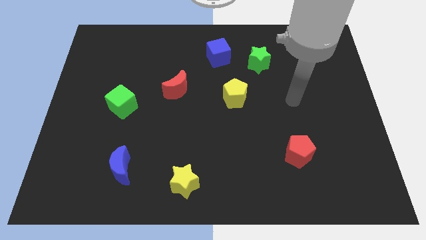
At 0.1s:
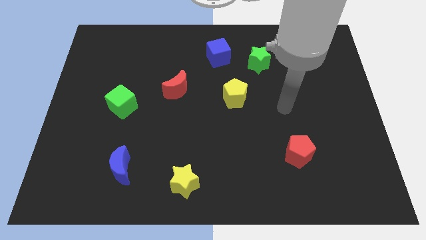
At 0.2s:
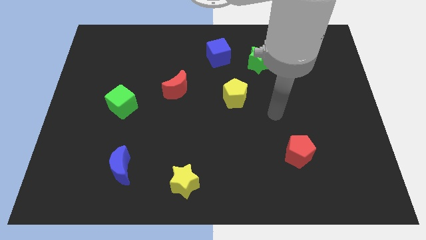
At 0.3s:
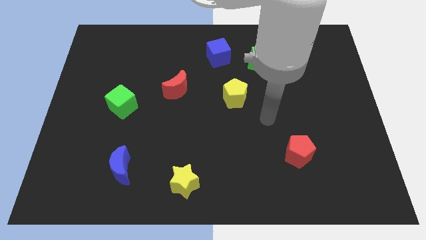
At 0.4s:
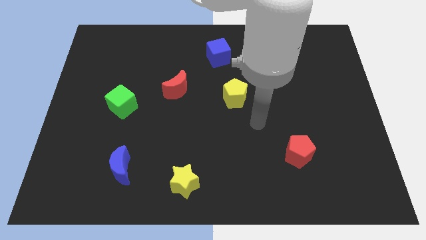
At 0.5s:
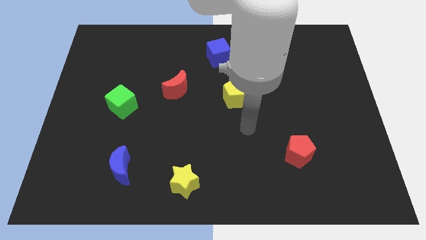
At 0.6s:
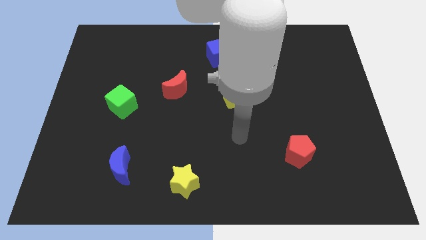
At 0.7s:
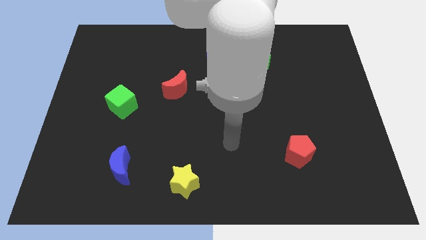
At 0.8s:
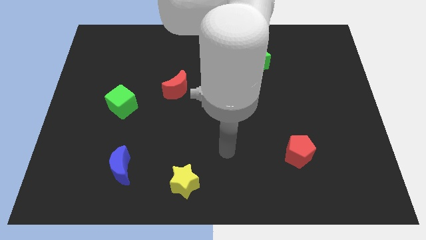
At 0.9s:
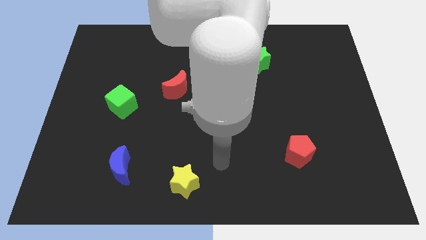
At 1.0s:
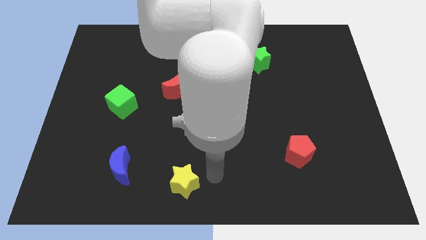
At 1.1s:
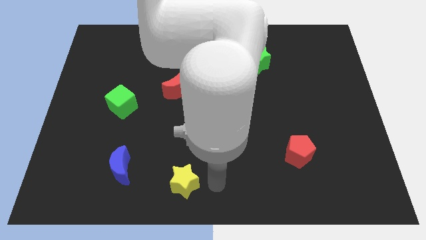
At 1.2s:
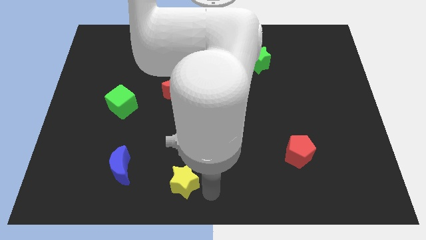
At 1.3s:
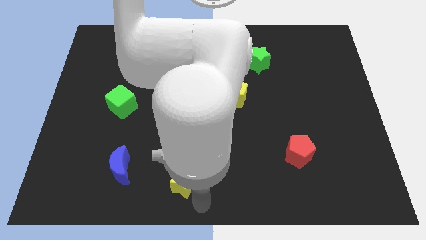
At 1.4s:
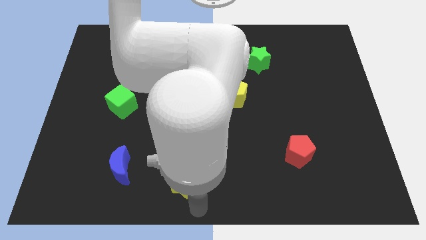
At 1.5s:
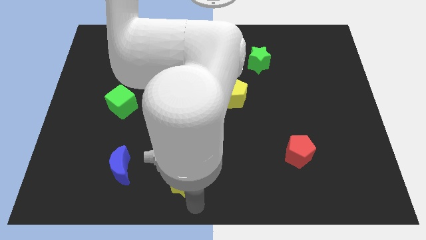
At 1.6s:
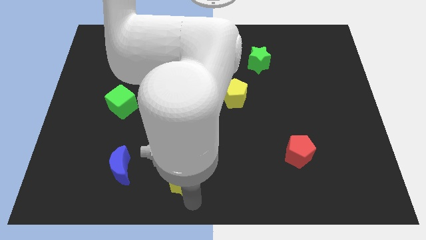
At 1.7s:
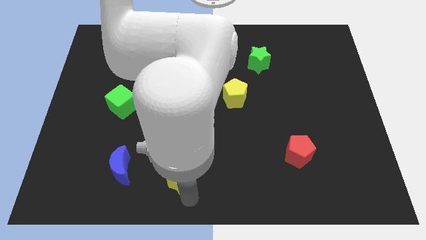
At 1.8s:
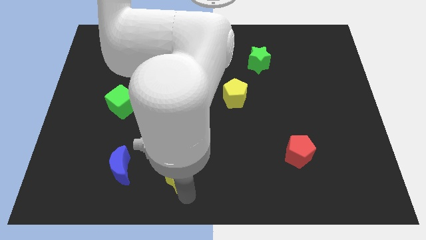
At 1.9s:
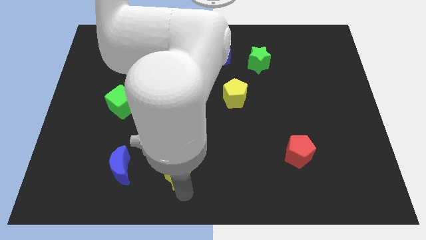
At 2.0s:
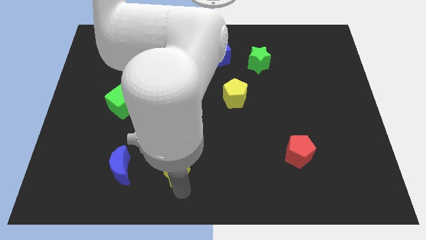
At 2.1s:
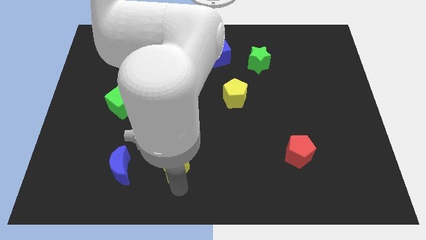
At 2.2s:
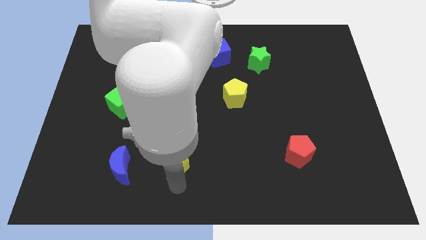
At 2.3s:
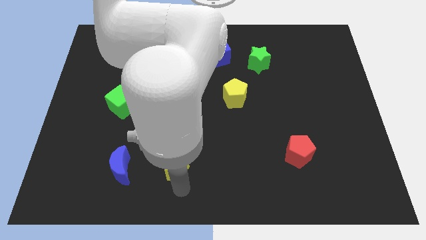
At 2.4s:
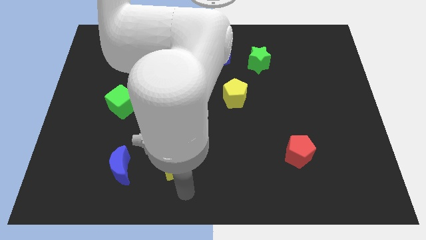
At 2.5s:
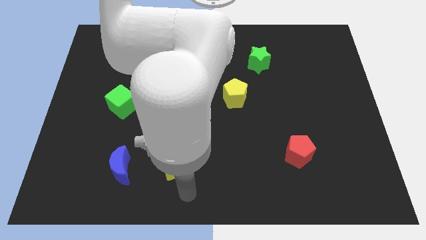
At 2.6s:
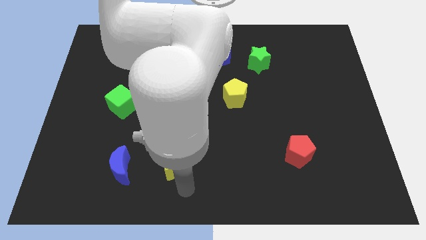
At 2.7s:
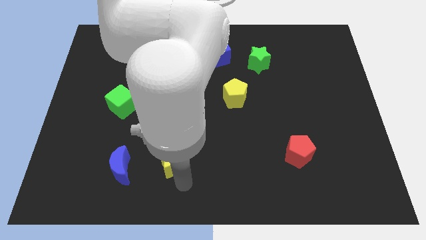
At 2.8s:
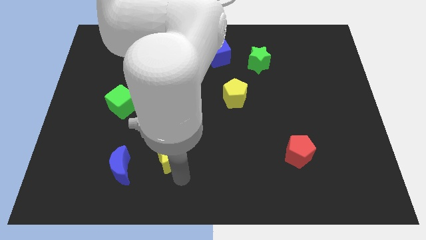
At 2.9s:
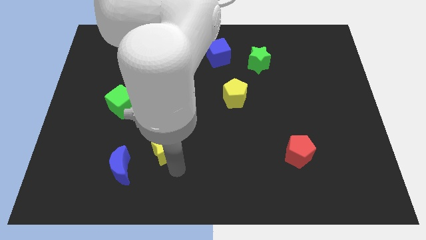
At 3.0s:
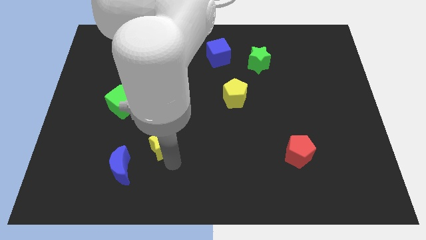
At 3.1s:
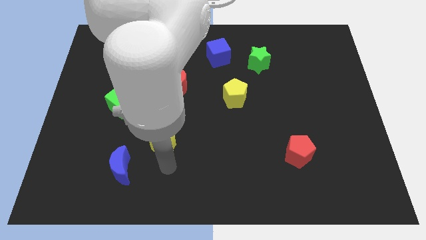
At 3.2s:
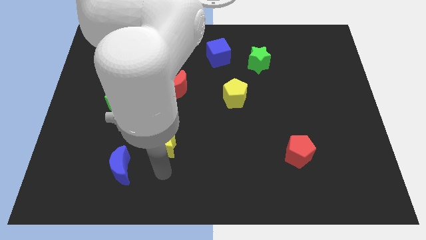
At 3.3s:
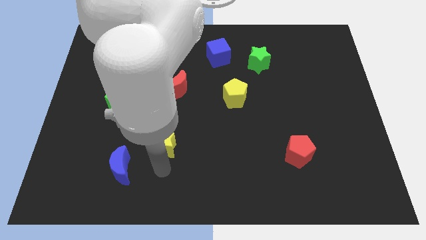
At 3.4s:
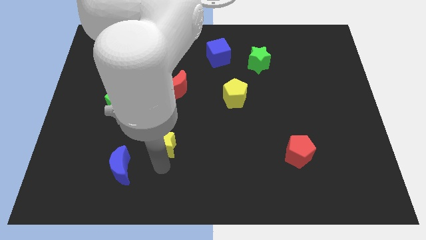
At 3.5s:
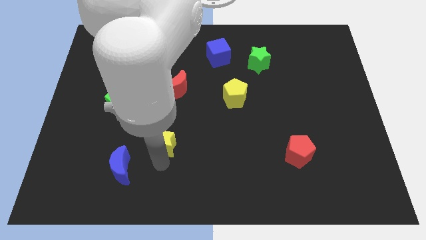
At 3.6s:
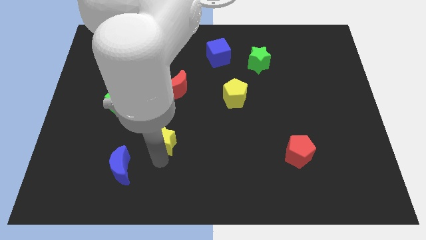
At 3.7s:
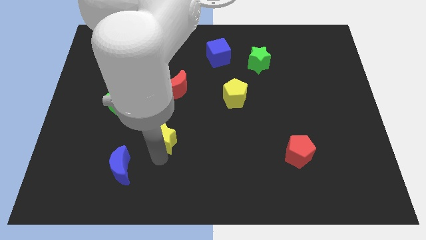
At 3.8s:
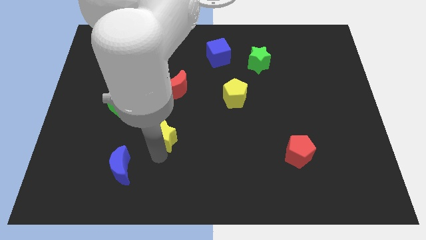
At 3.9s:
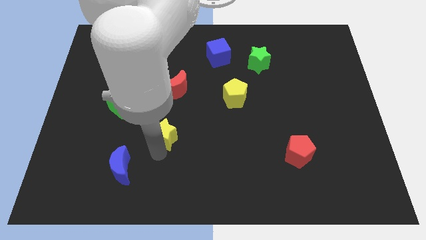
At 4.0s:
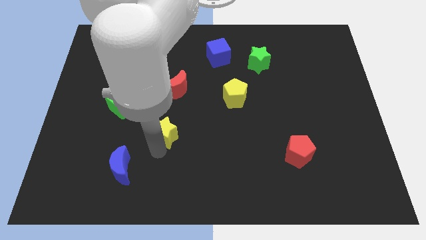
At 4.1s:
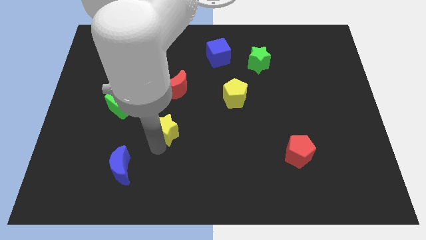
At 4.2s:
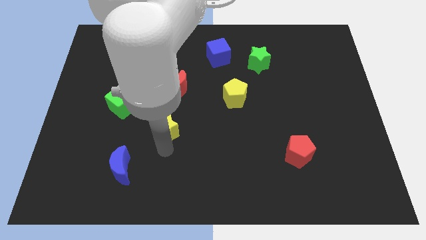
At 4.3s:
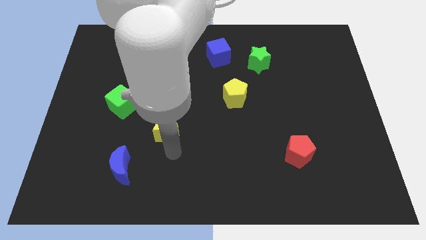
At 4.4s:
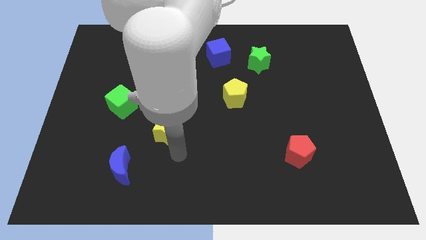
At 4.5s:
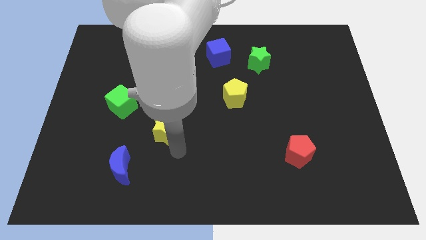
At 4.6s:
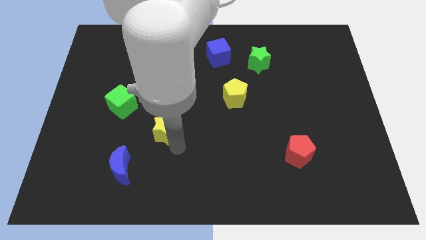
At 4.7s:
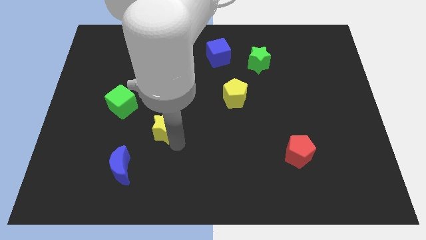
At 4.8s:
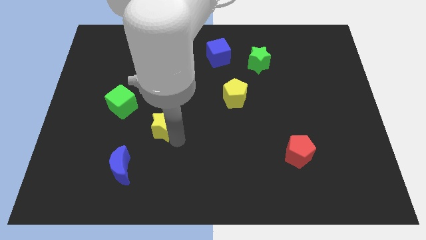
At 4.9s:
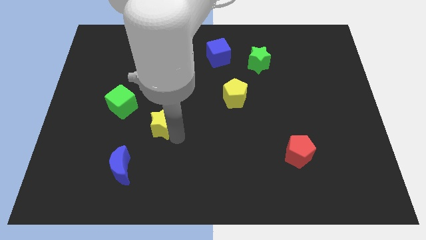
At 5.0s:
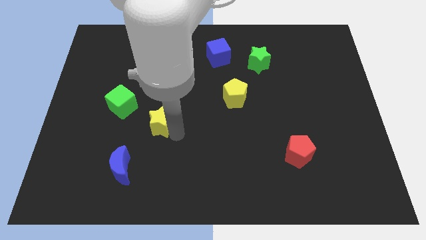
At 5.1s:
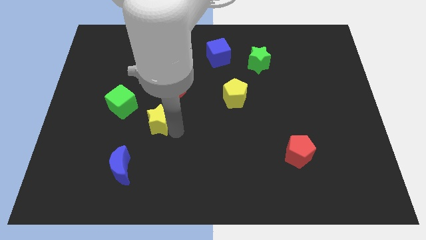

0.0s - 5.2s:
put the yellow star diagonally down and to the left of the red moon

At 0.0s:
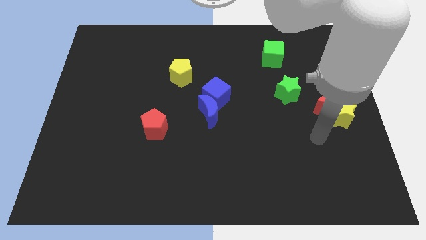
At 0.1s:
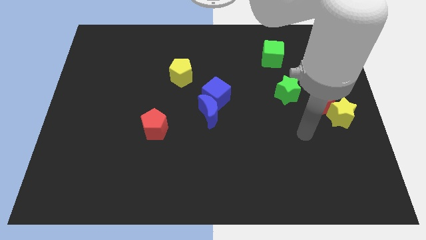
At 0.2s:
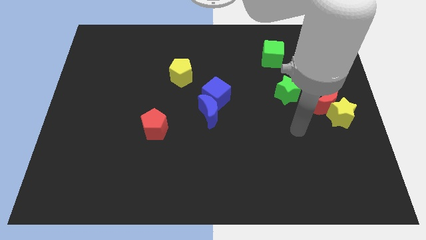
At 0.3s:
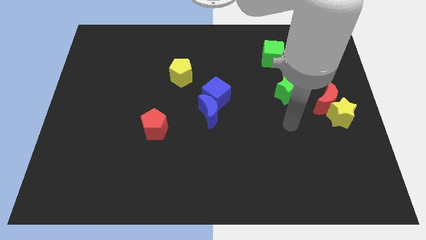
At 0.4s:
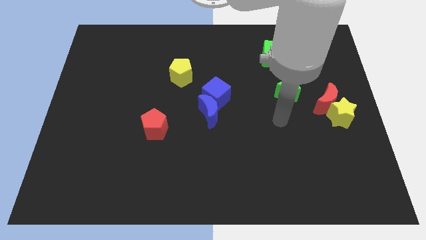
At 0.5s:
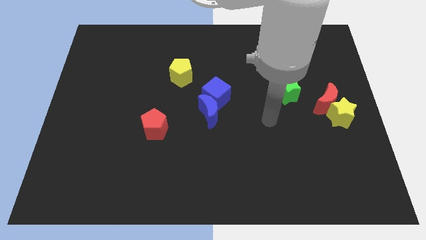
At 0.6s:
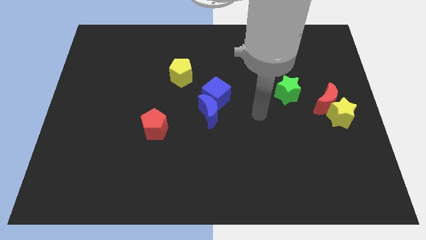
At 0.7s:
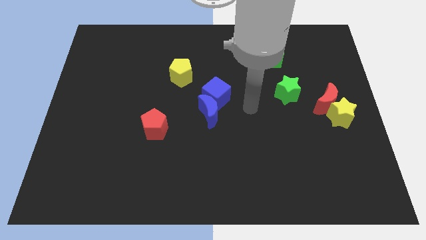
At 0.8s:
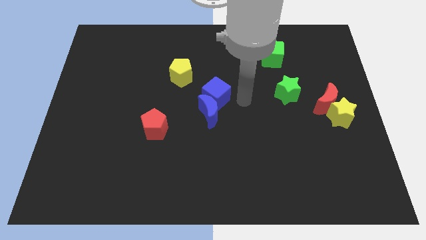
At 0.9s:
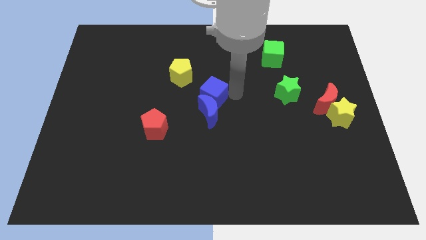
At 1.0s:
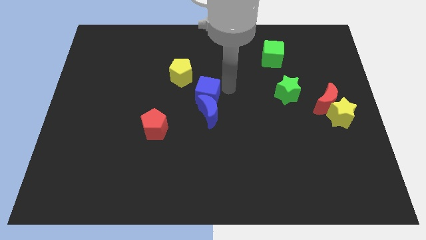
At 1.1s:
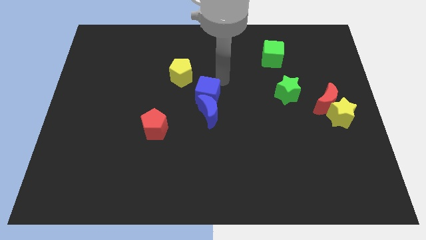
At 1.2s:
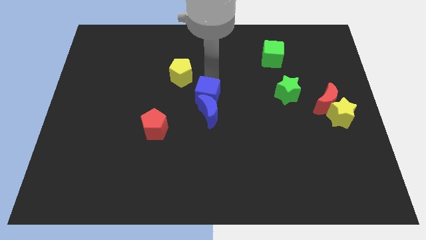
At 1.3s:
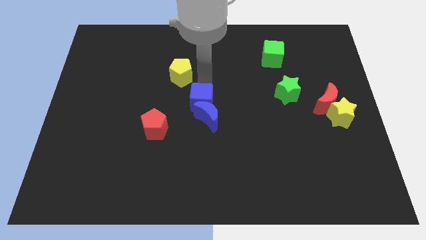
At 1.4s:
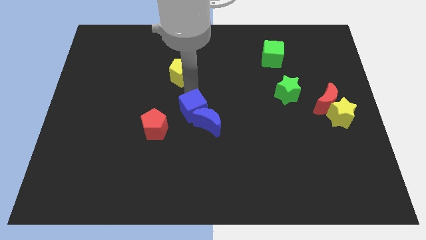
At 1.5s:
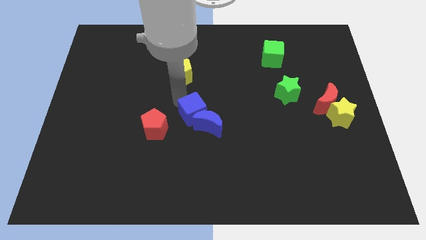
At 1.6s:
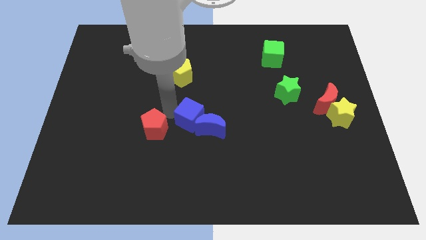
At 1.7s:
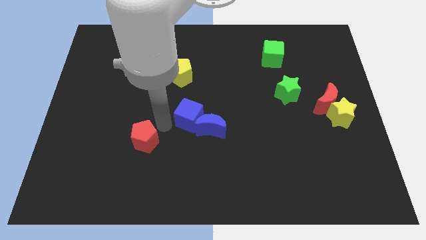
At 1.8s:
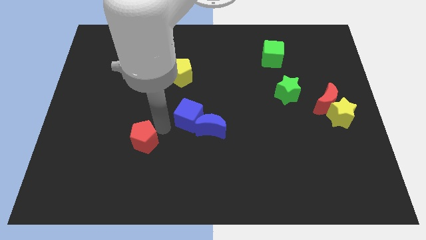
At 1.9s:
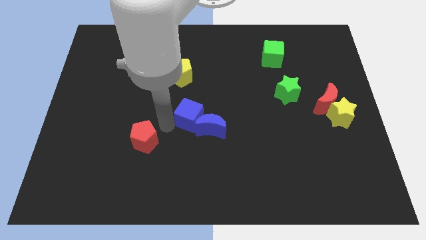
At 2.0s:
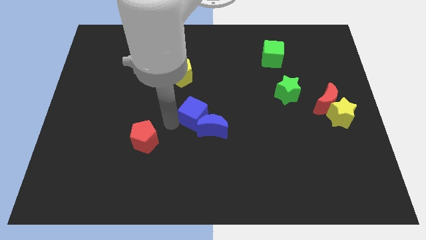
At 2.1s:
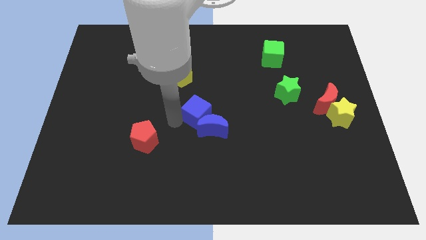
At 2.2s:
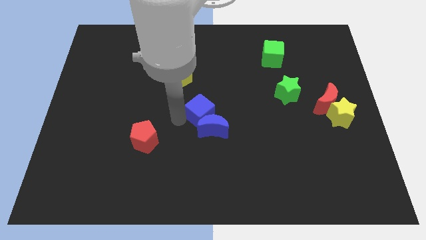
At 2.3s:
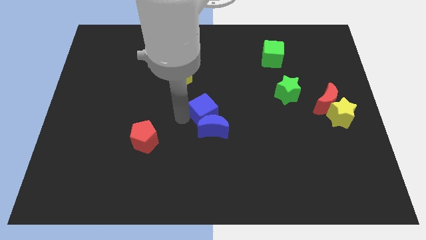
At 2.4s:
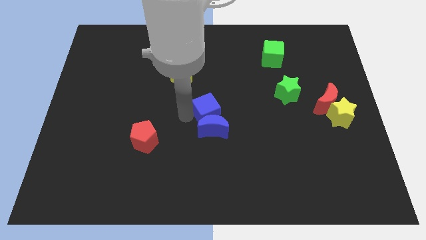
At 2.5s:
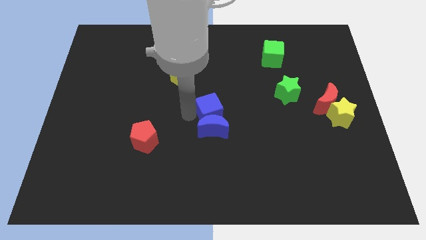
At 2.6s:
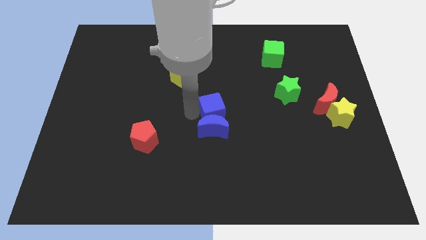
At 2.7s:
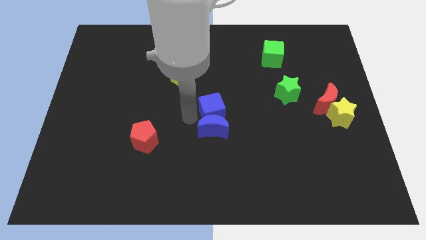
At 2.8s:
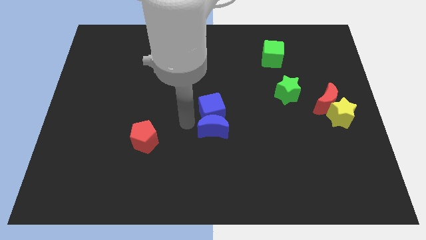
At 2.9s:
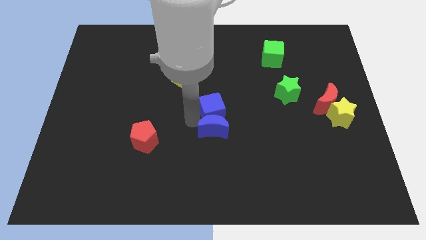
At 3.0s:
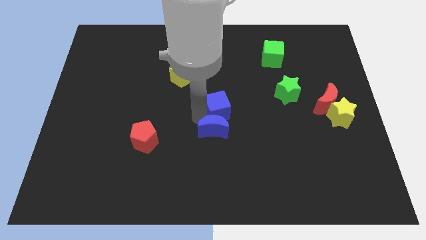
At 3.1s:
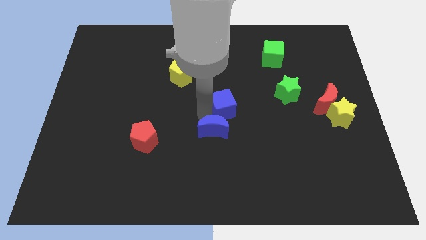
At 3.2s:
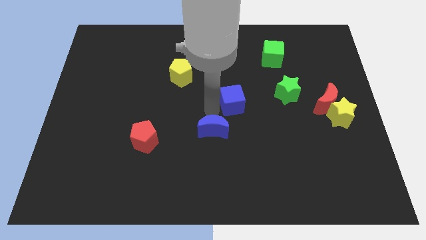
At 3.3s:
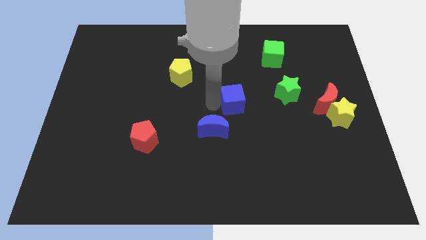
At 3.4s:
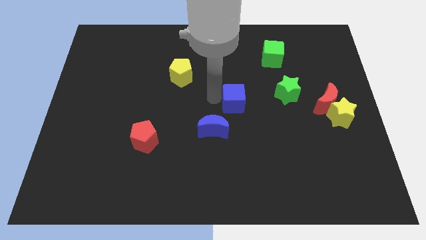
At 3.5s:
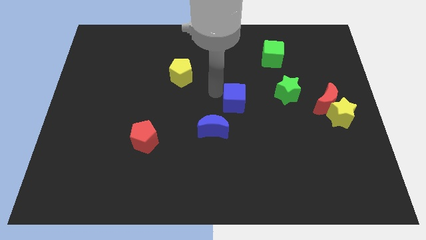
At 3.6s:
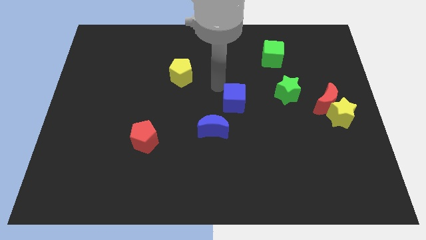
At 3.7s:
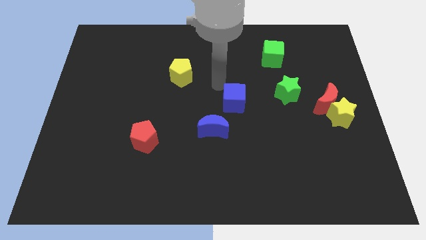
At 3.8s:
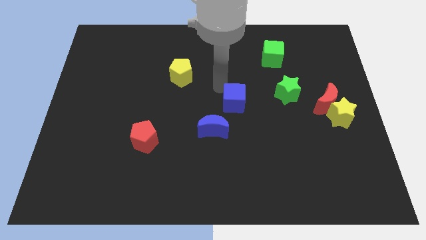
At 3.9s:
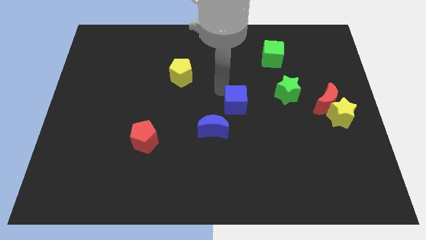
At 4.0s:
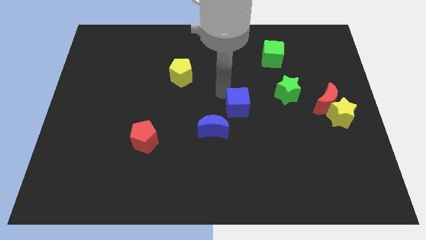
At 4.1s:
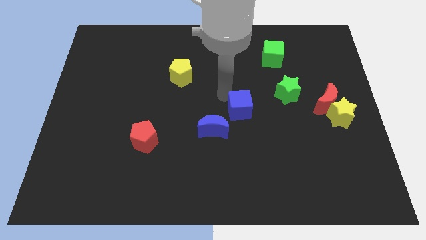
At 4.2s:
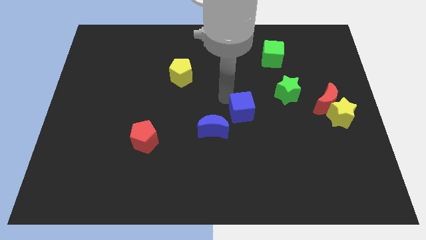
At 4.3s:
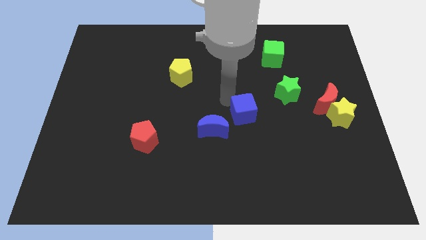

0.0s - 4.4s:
put the blue cube right of the blue moon
